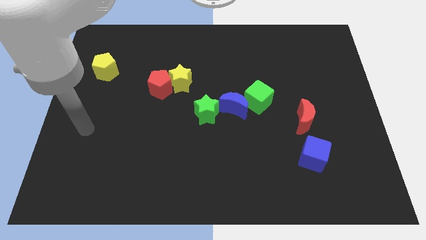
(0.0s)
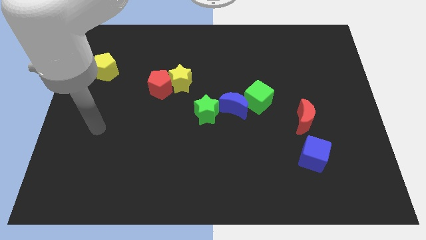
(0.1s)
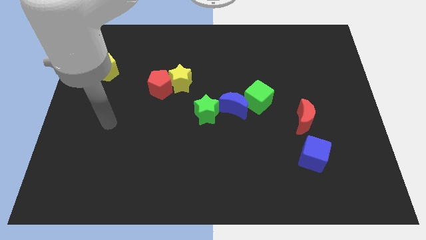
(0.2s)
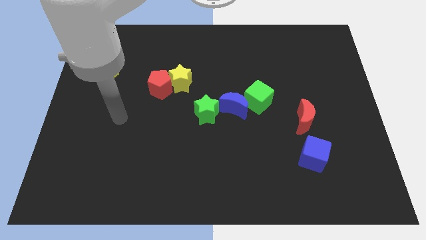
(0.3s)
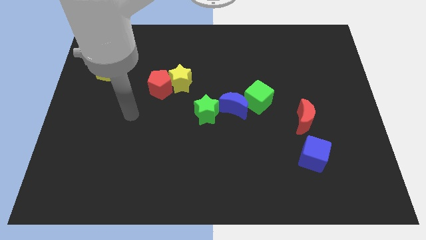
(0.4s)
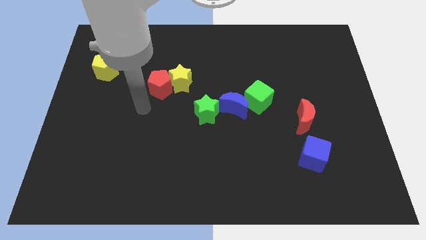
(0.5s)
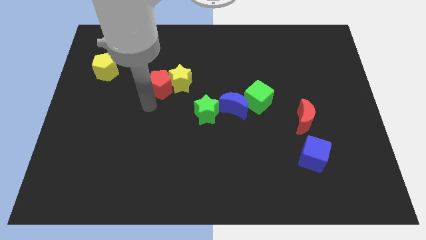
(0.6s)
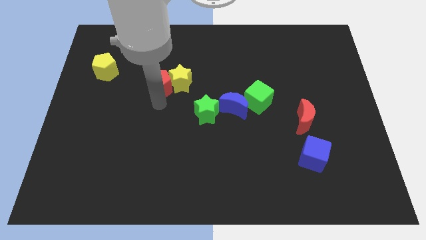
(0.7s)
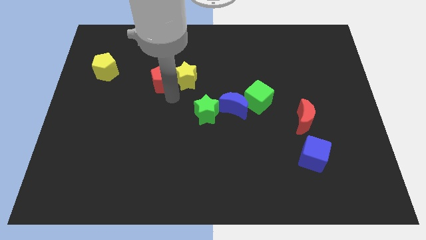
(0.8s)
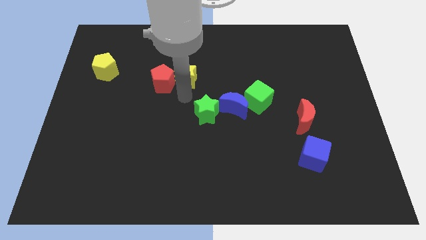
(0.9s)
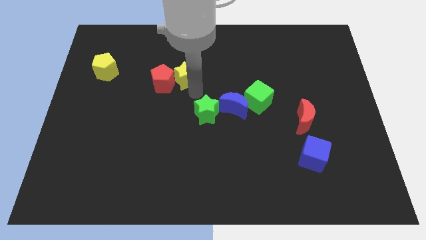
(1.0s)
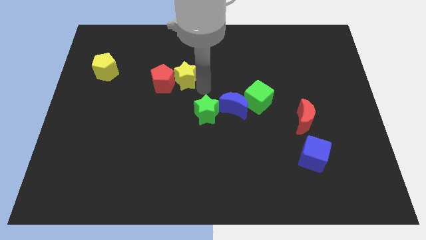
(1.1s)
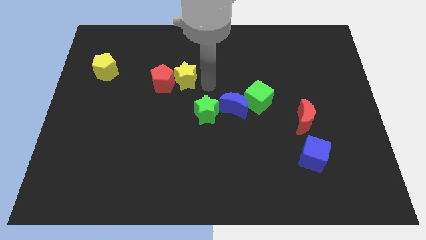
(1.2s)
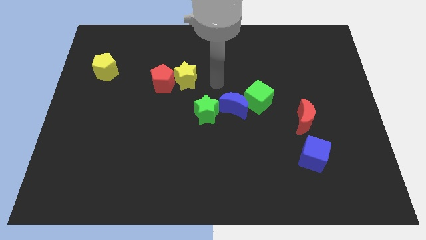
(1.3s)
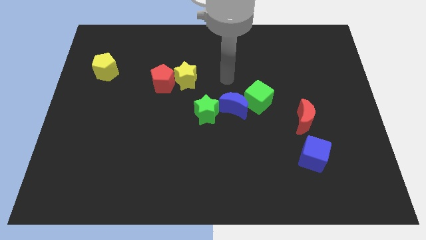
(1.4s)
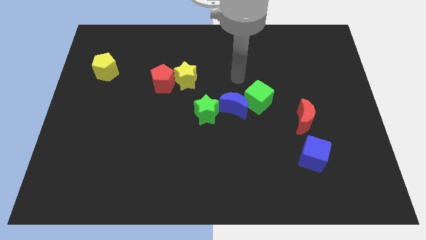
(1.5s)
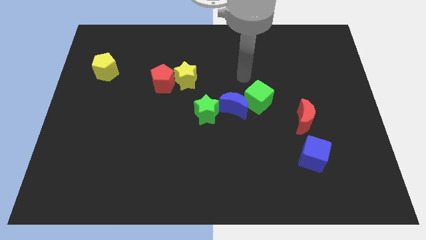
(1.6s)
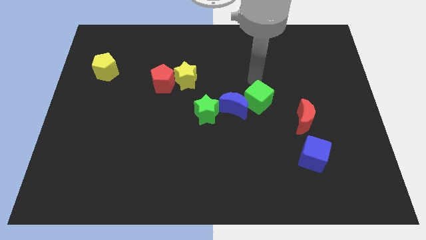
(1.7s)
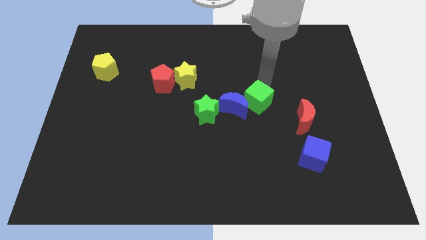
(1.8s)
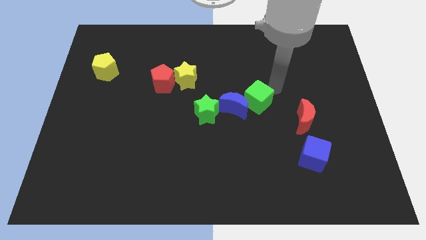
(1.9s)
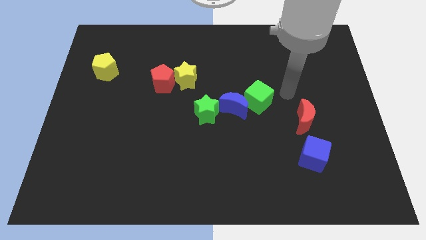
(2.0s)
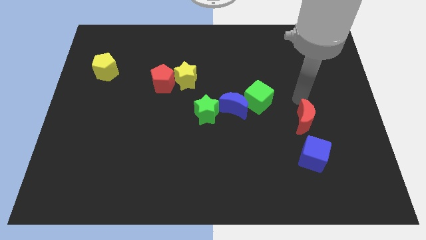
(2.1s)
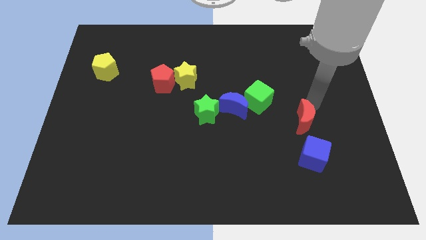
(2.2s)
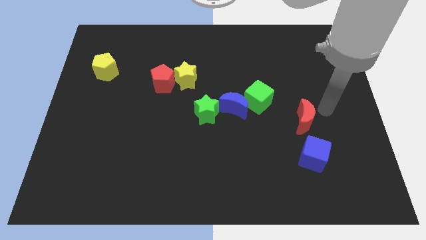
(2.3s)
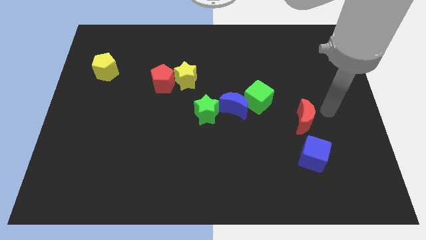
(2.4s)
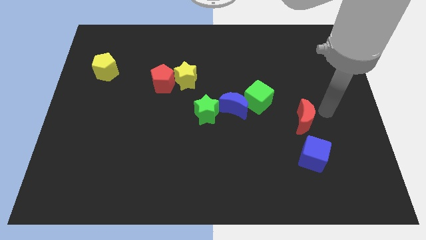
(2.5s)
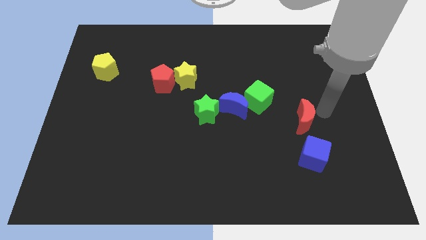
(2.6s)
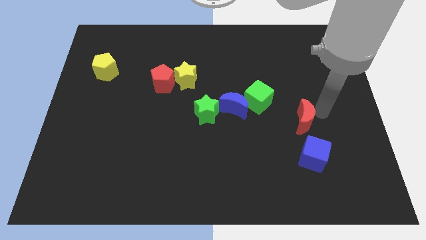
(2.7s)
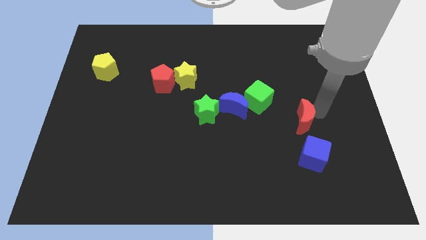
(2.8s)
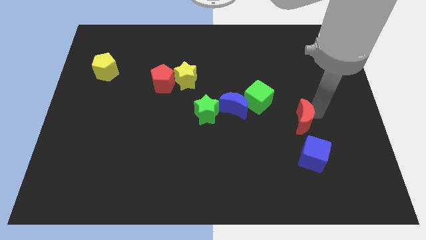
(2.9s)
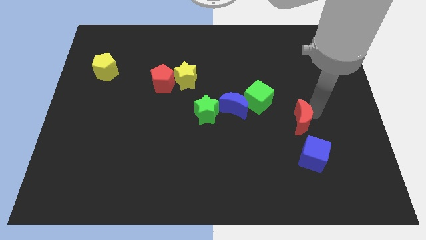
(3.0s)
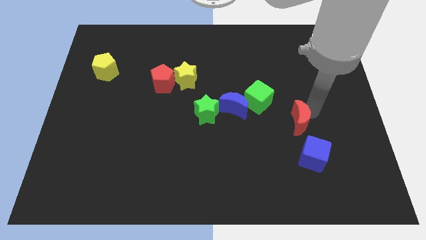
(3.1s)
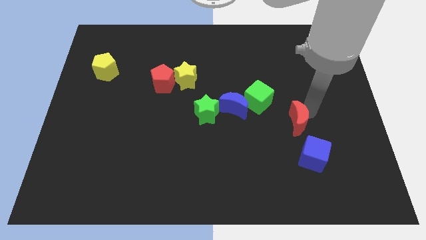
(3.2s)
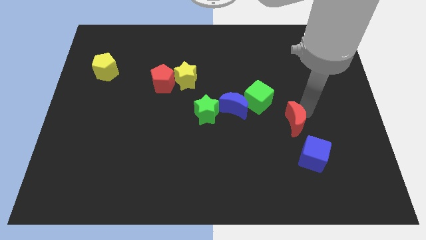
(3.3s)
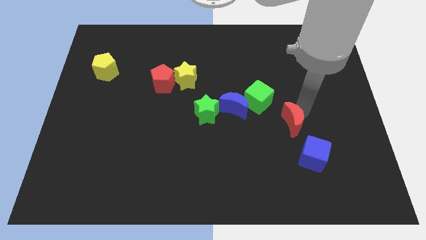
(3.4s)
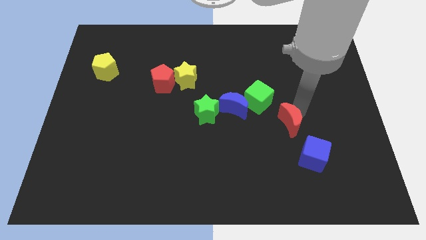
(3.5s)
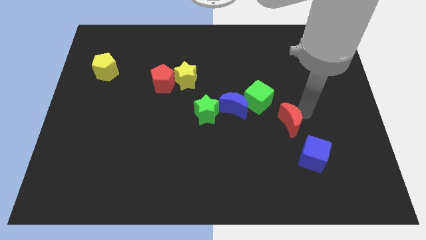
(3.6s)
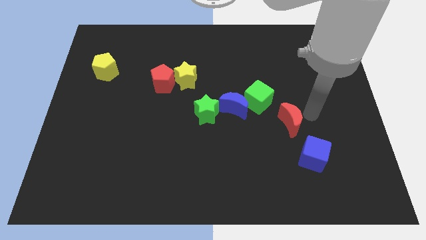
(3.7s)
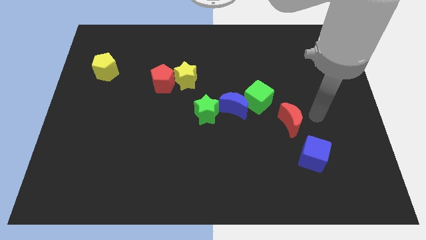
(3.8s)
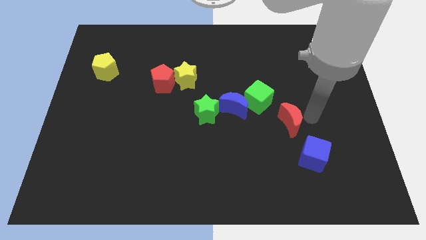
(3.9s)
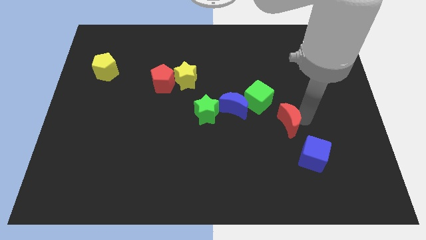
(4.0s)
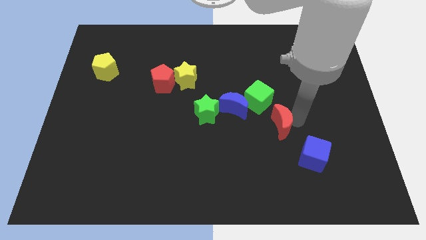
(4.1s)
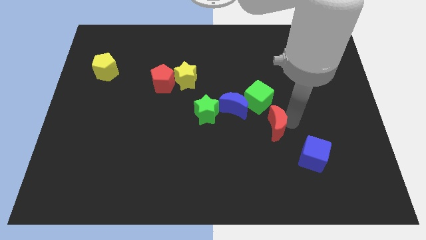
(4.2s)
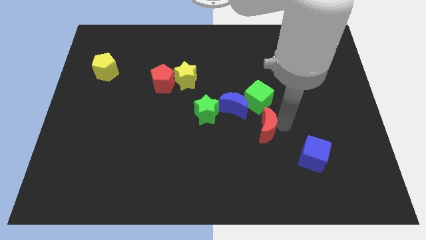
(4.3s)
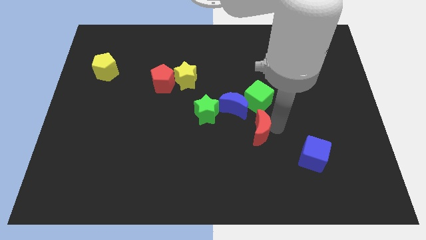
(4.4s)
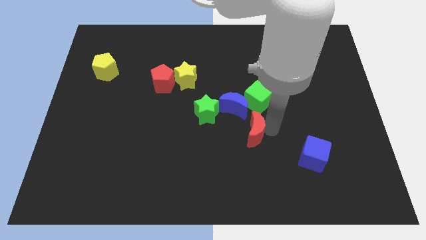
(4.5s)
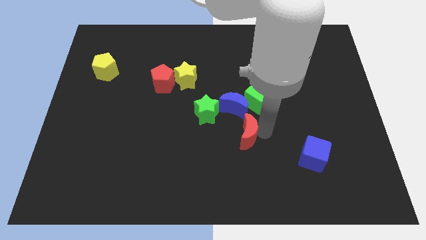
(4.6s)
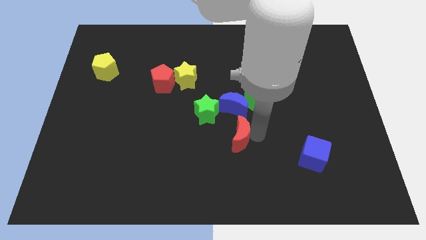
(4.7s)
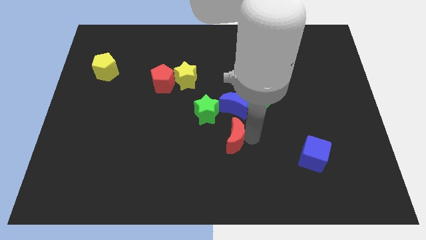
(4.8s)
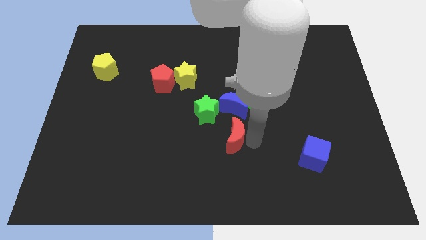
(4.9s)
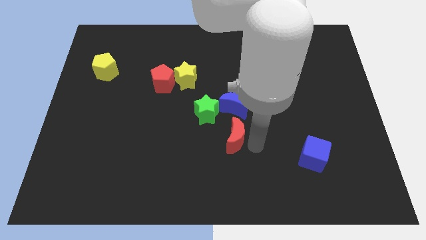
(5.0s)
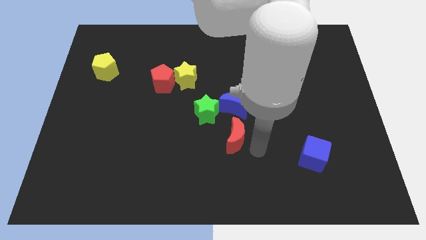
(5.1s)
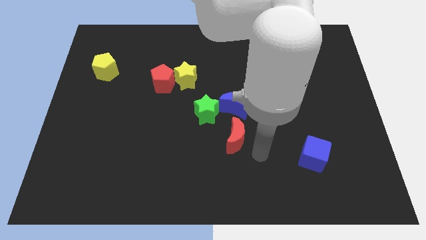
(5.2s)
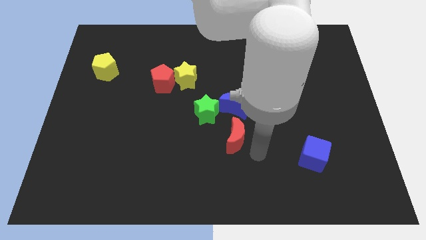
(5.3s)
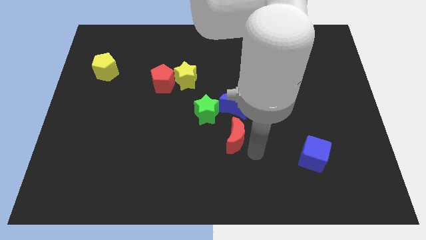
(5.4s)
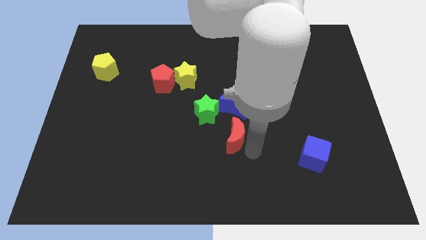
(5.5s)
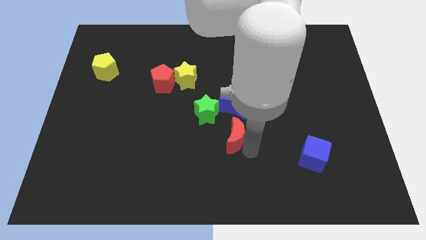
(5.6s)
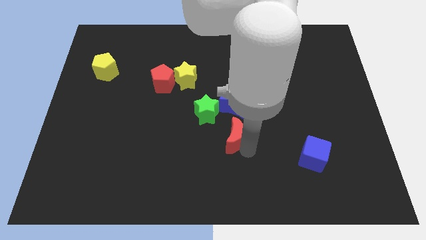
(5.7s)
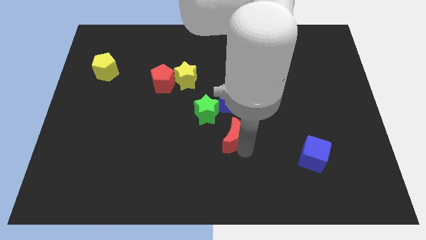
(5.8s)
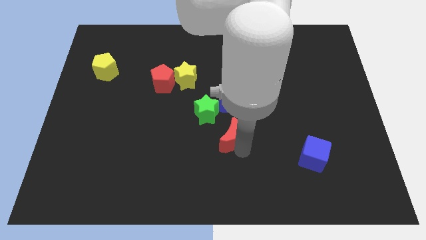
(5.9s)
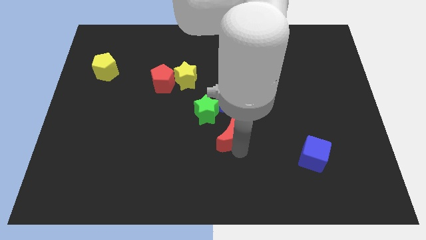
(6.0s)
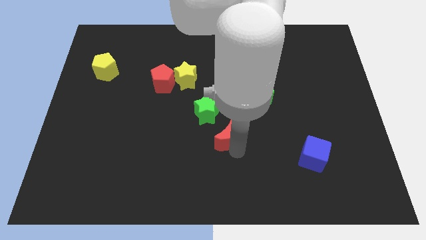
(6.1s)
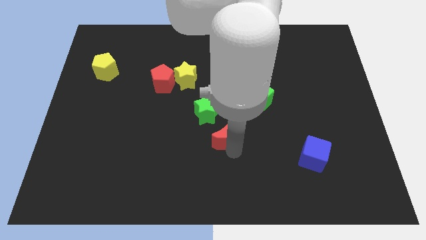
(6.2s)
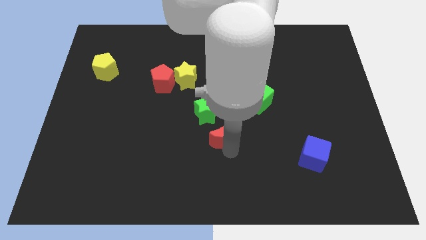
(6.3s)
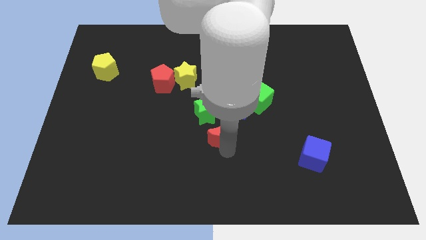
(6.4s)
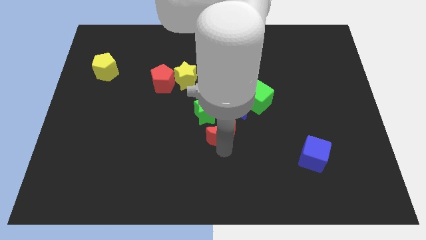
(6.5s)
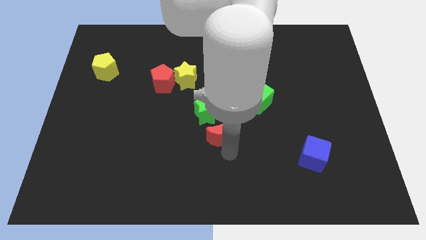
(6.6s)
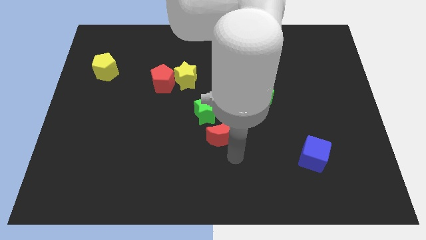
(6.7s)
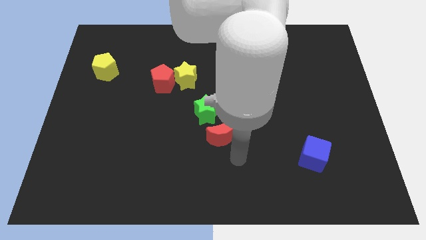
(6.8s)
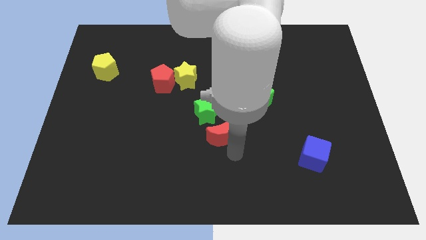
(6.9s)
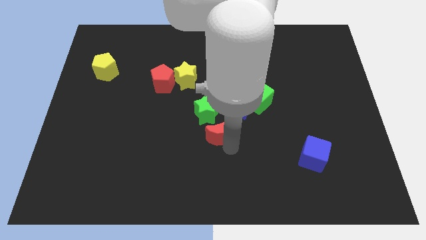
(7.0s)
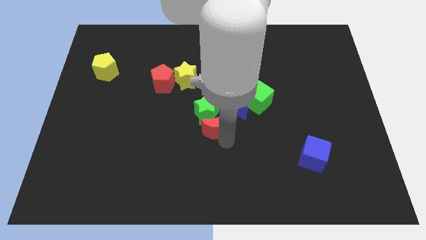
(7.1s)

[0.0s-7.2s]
push the red moon next to the green star

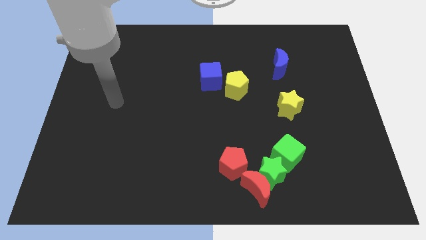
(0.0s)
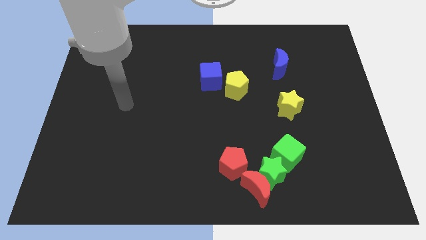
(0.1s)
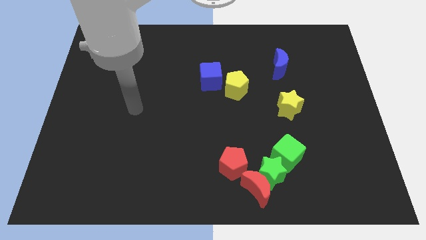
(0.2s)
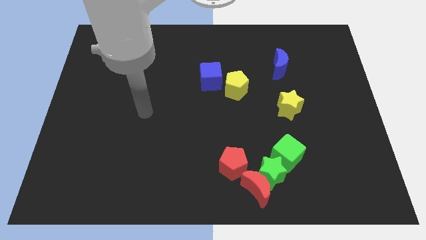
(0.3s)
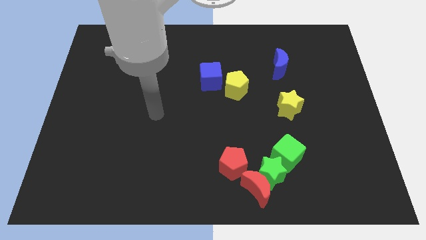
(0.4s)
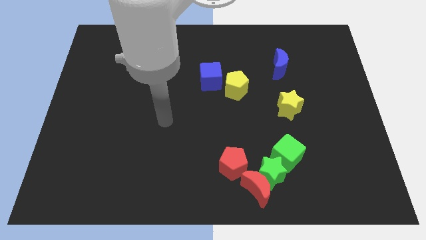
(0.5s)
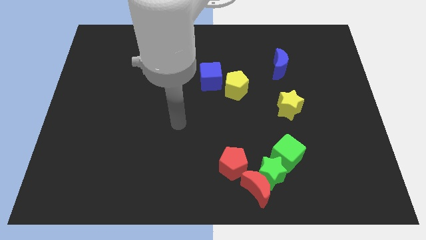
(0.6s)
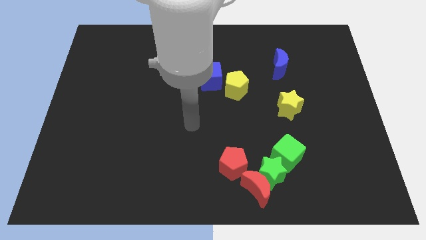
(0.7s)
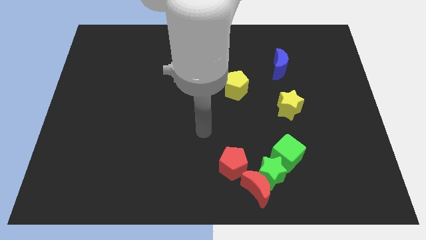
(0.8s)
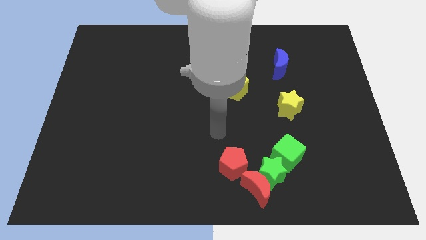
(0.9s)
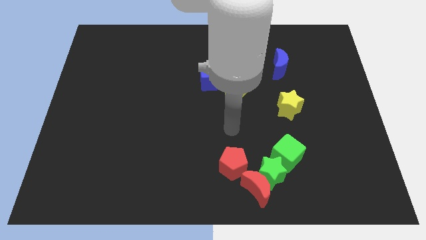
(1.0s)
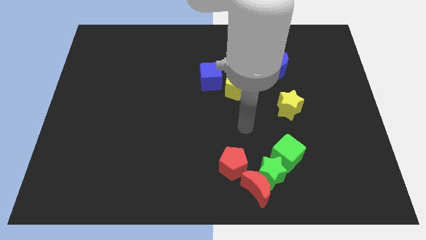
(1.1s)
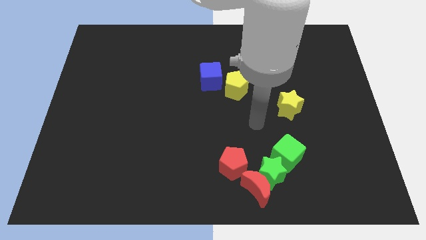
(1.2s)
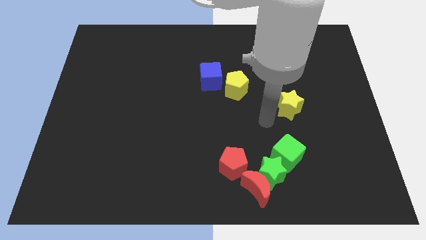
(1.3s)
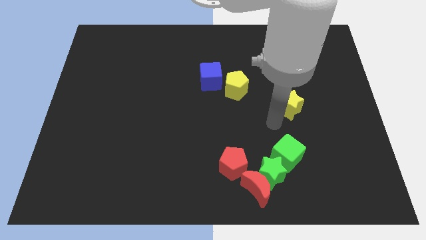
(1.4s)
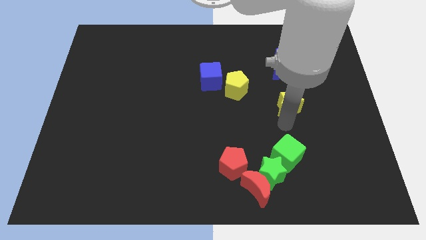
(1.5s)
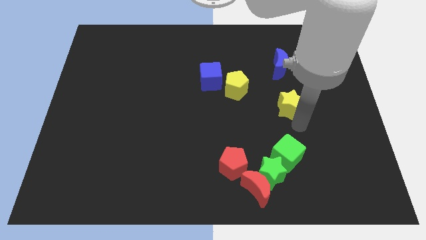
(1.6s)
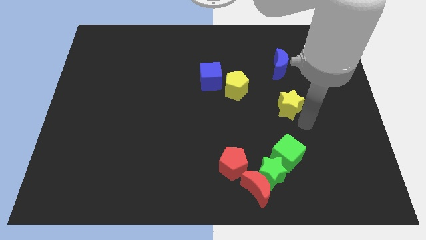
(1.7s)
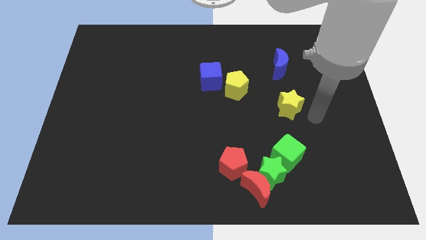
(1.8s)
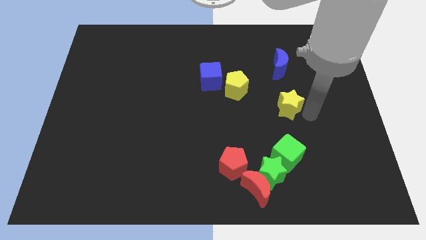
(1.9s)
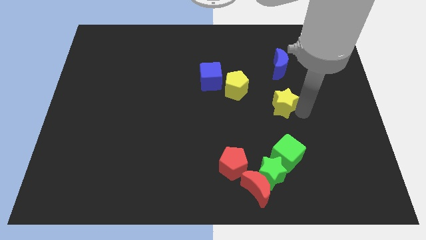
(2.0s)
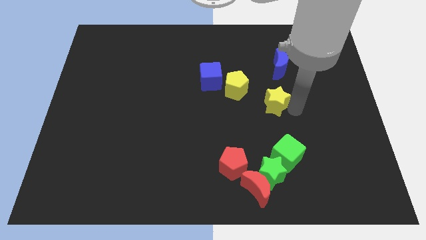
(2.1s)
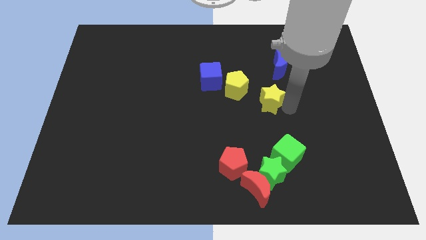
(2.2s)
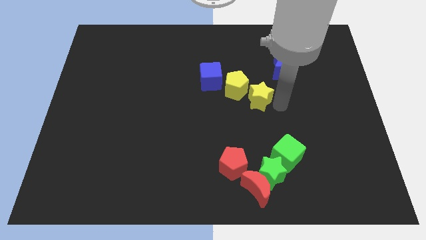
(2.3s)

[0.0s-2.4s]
push the yellow star to the yellow pentagon
